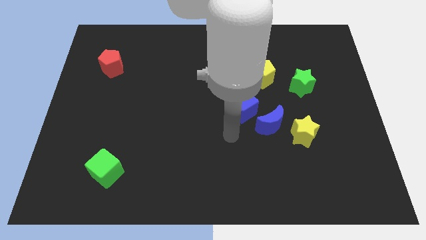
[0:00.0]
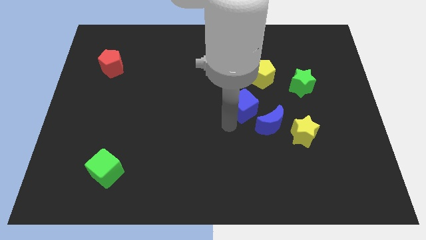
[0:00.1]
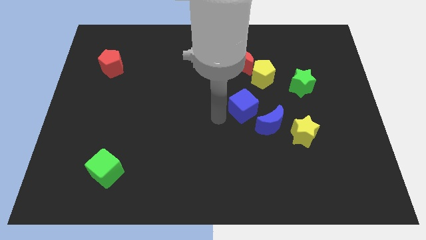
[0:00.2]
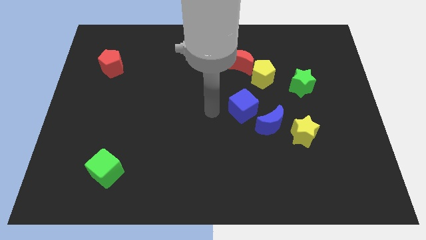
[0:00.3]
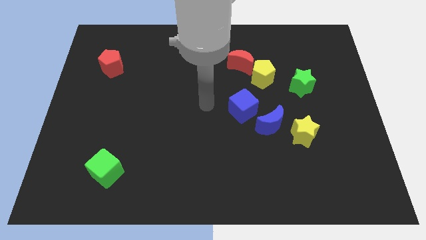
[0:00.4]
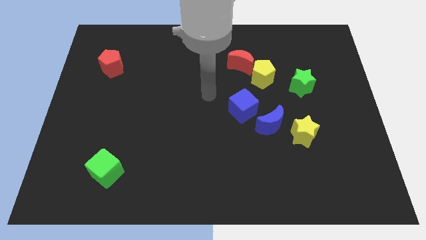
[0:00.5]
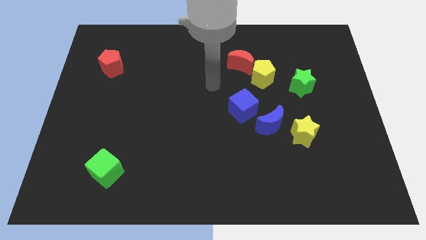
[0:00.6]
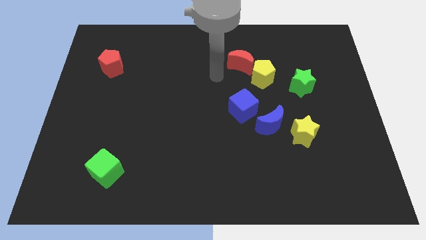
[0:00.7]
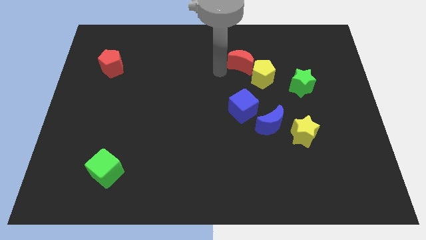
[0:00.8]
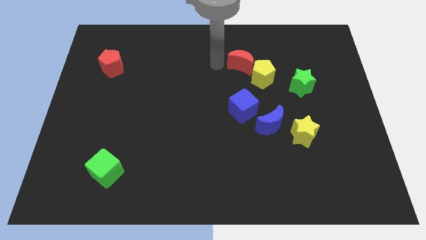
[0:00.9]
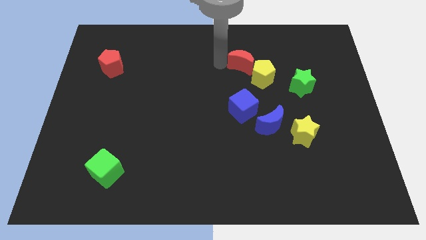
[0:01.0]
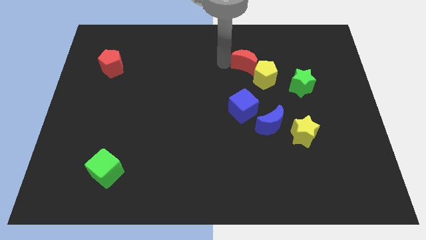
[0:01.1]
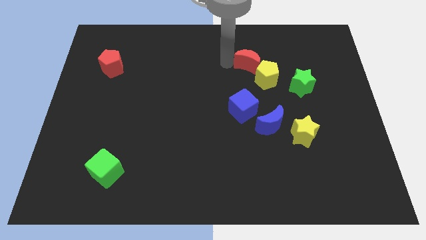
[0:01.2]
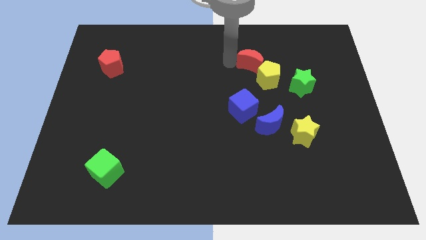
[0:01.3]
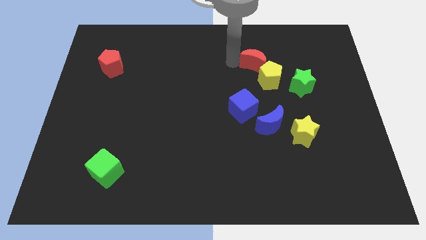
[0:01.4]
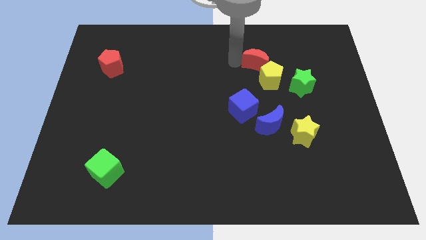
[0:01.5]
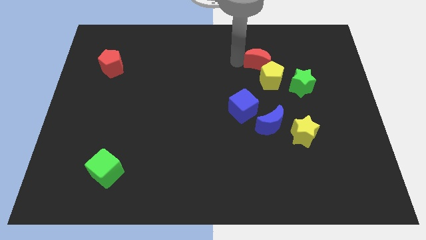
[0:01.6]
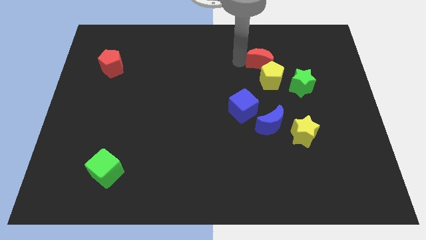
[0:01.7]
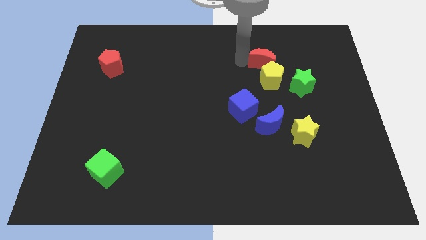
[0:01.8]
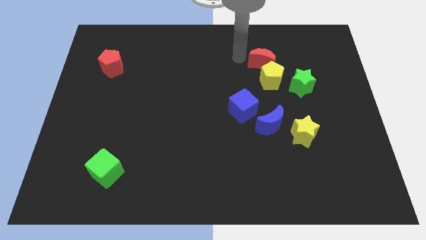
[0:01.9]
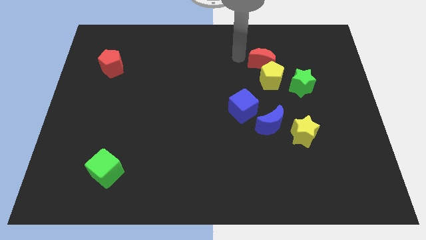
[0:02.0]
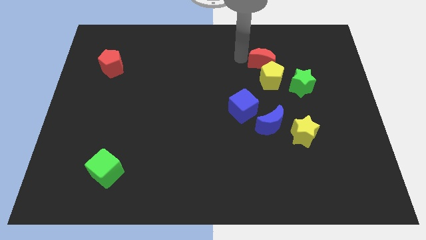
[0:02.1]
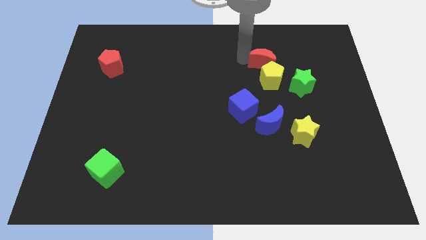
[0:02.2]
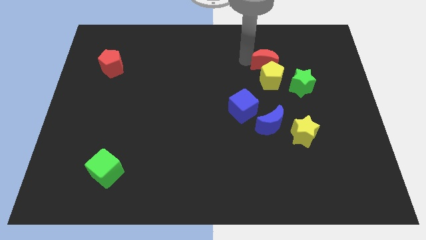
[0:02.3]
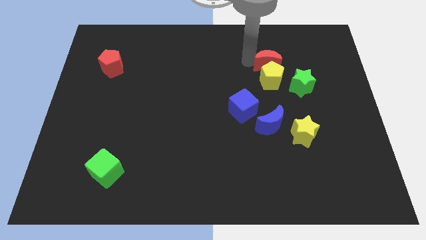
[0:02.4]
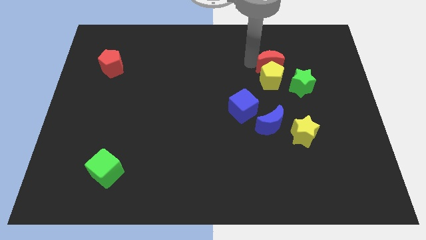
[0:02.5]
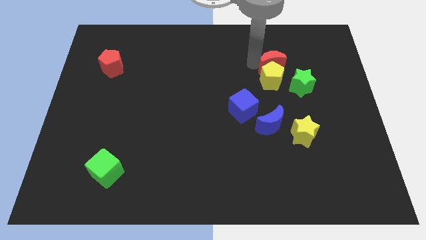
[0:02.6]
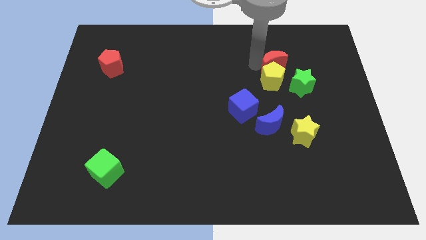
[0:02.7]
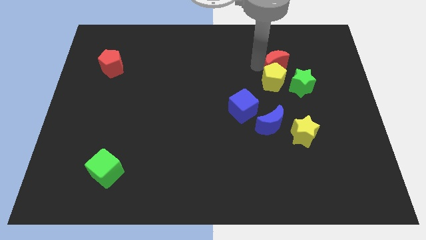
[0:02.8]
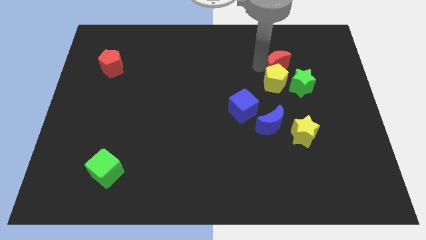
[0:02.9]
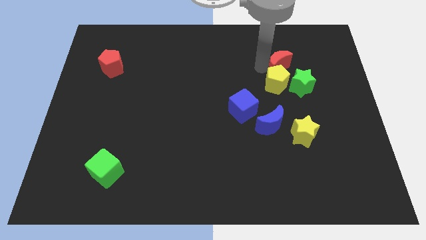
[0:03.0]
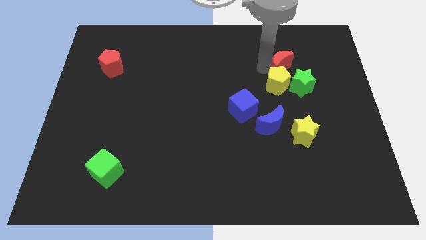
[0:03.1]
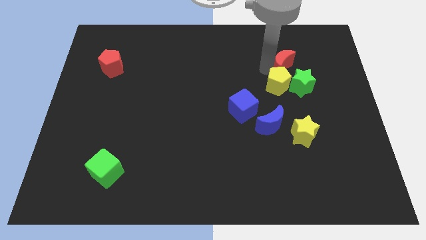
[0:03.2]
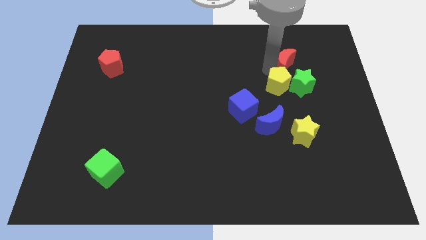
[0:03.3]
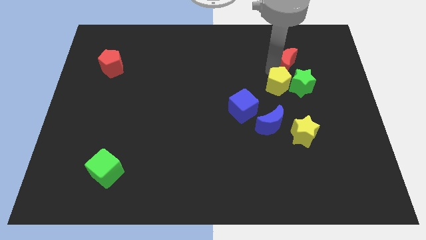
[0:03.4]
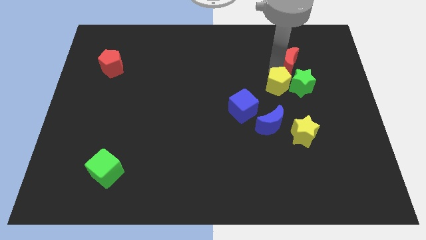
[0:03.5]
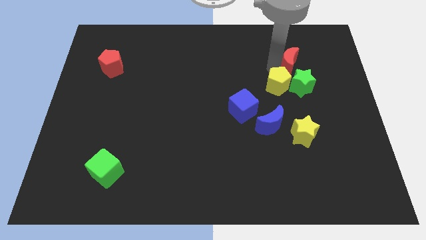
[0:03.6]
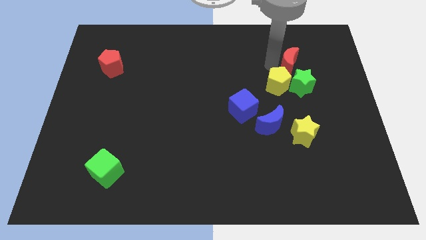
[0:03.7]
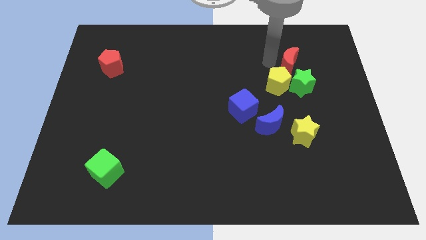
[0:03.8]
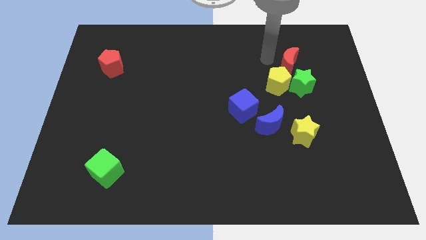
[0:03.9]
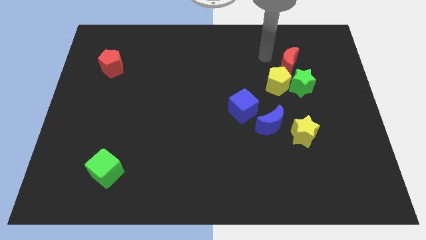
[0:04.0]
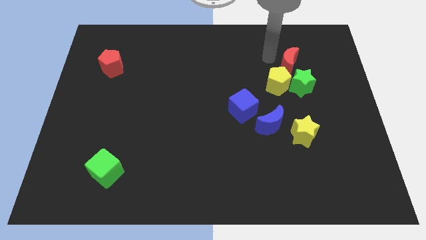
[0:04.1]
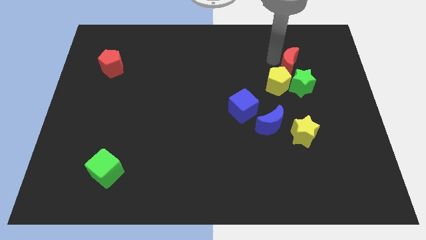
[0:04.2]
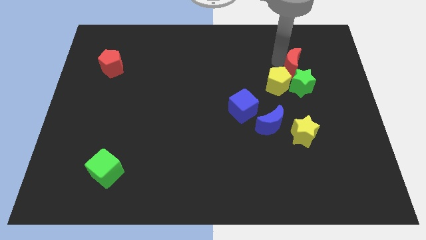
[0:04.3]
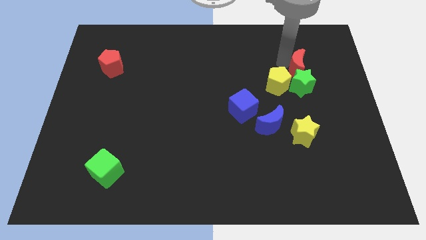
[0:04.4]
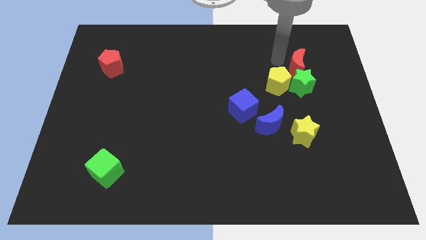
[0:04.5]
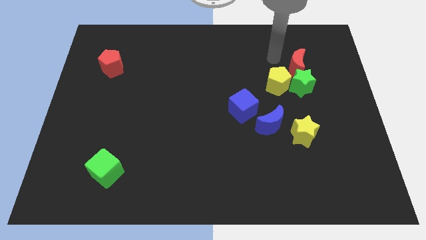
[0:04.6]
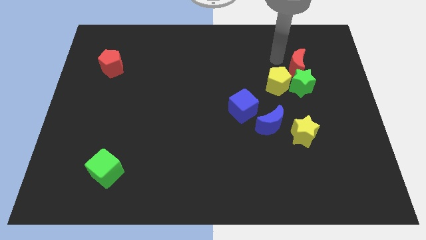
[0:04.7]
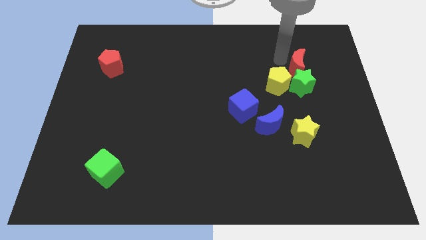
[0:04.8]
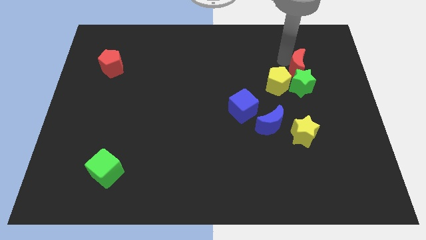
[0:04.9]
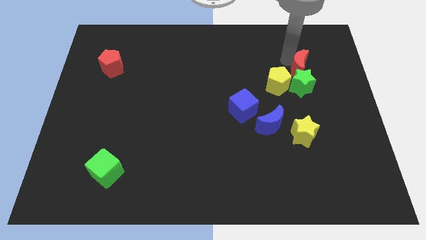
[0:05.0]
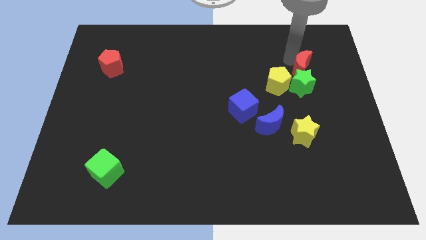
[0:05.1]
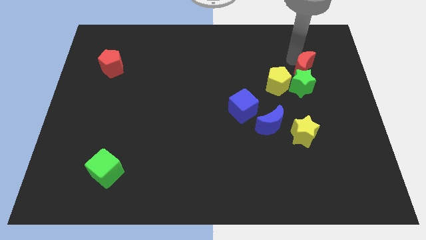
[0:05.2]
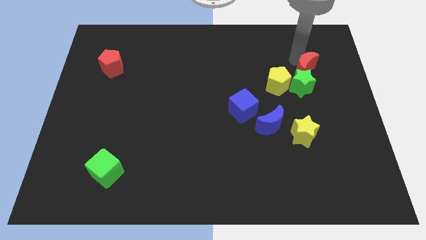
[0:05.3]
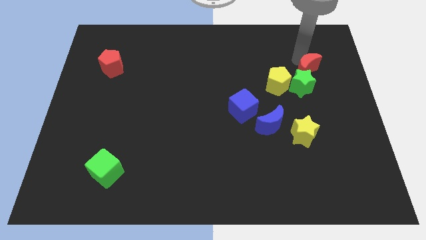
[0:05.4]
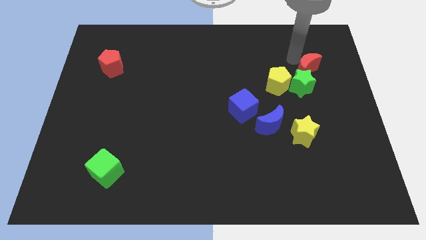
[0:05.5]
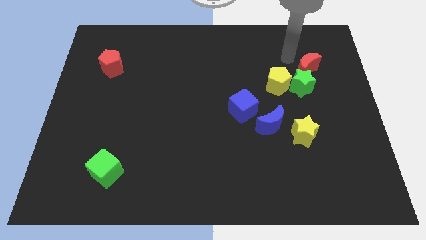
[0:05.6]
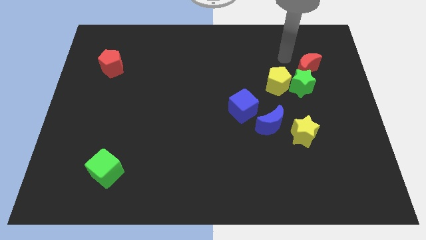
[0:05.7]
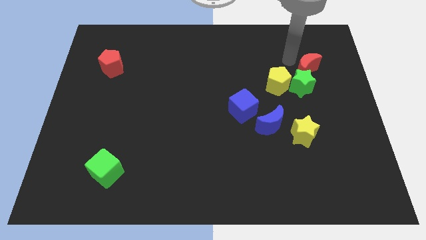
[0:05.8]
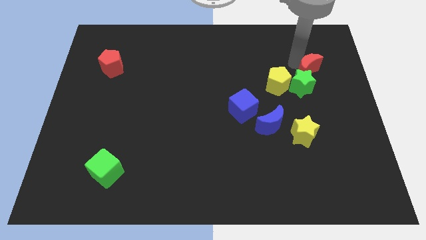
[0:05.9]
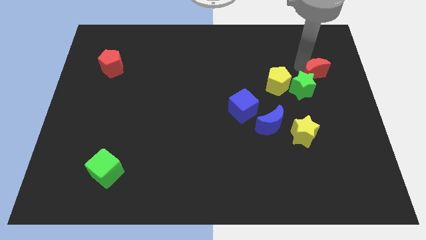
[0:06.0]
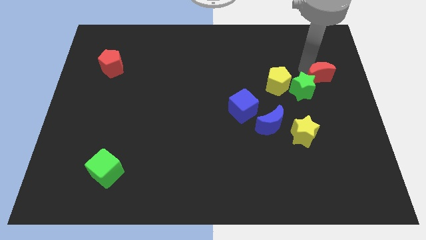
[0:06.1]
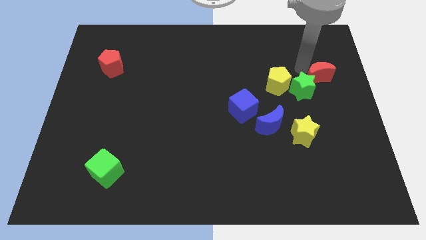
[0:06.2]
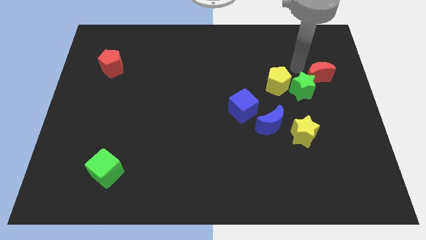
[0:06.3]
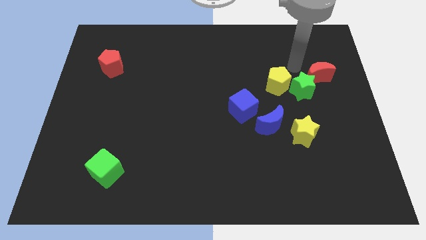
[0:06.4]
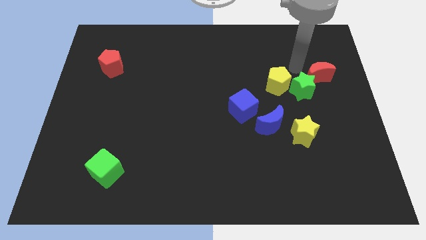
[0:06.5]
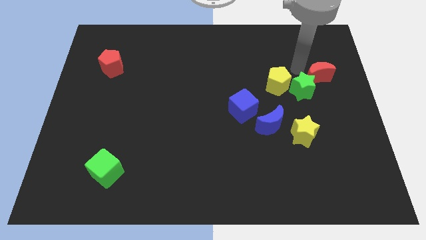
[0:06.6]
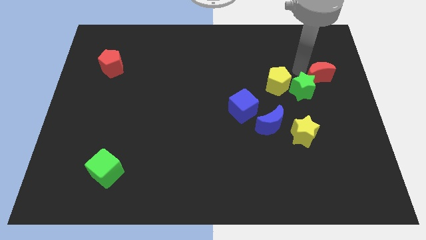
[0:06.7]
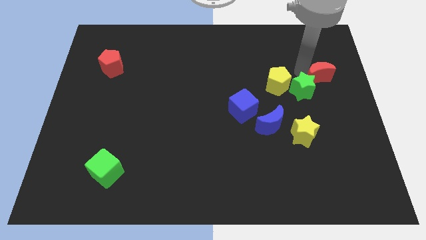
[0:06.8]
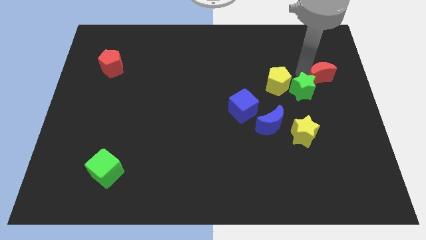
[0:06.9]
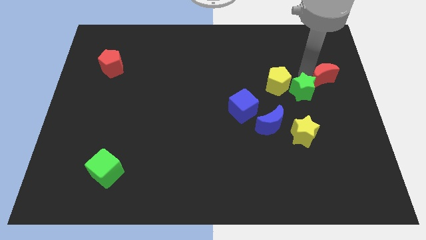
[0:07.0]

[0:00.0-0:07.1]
put the red moon to the right side of the board

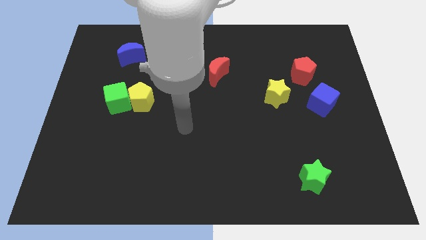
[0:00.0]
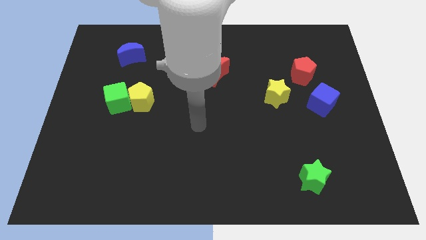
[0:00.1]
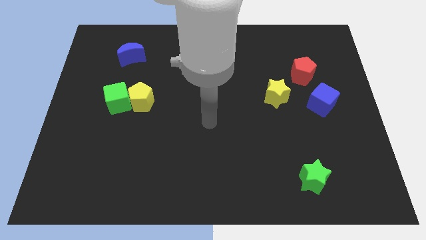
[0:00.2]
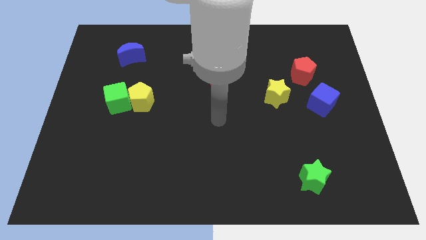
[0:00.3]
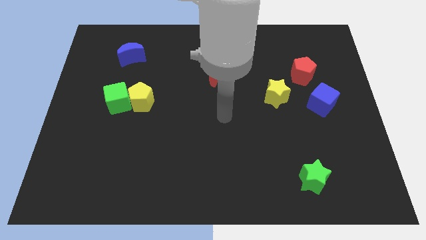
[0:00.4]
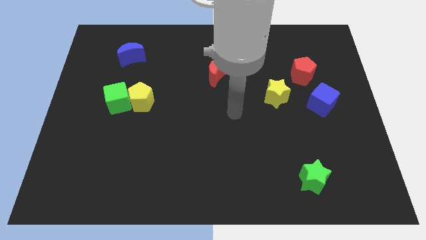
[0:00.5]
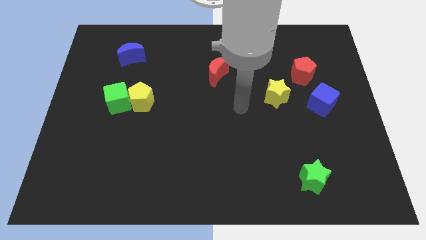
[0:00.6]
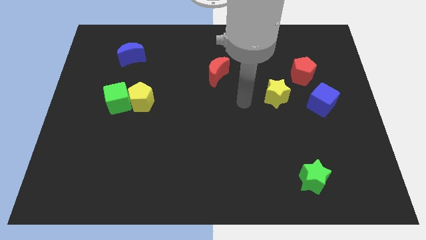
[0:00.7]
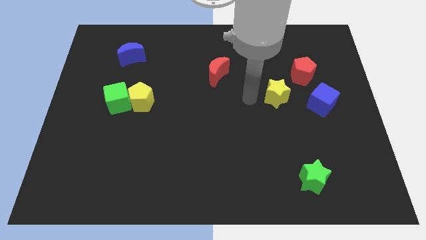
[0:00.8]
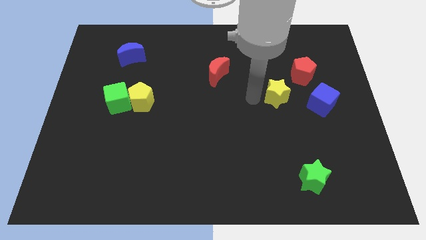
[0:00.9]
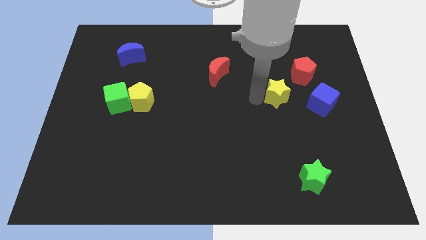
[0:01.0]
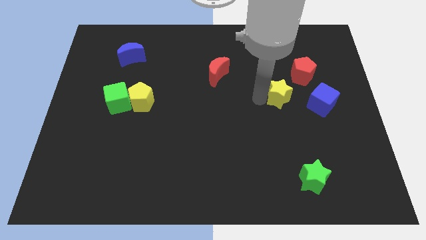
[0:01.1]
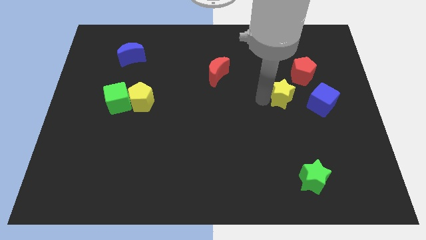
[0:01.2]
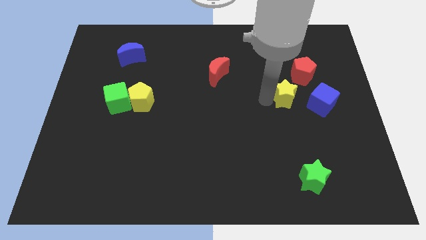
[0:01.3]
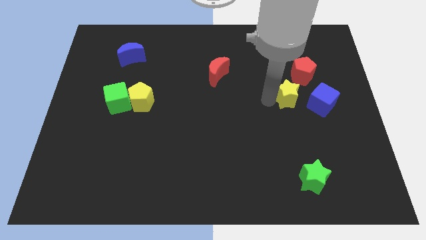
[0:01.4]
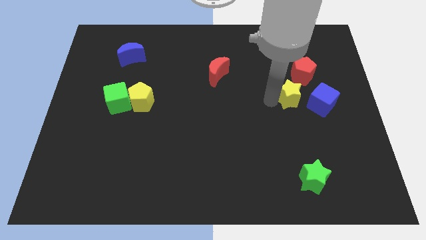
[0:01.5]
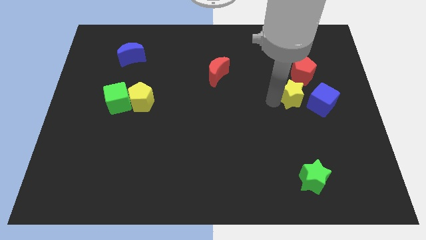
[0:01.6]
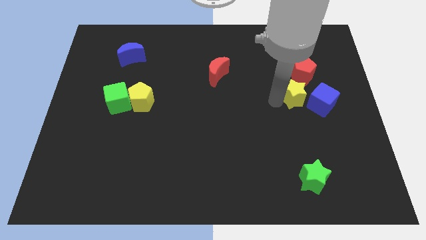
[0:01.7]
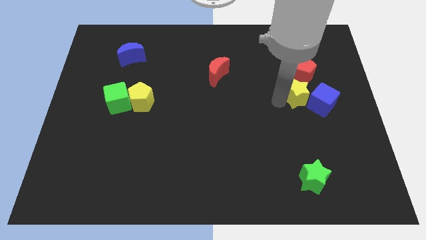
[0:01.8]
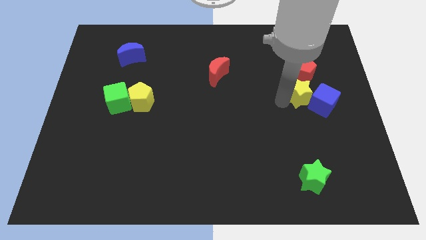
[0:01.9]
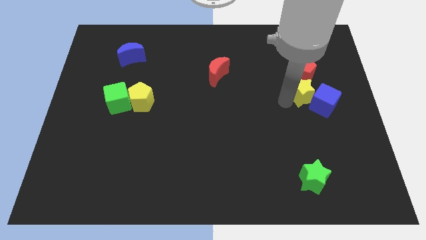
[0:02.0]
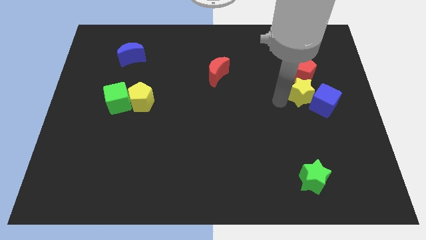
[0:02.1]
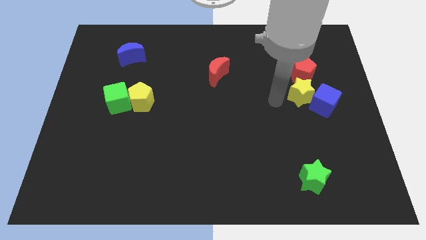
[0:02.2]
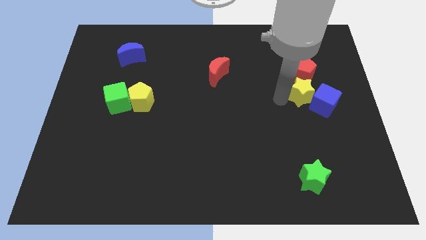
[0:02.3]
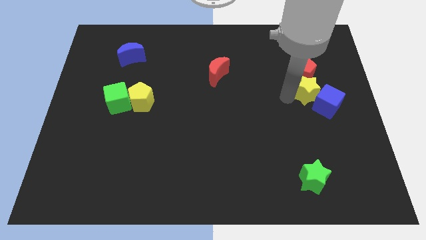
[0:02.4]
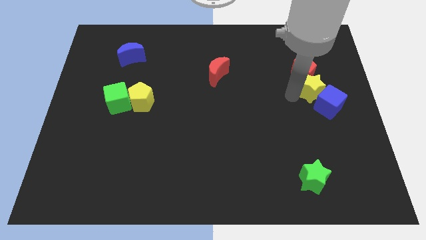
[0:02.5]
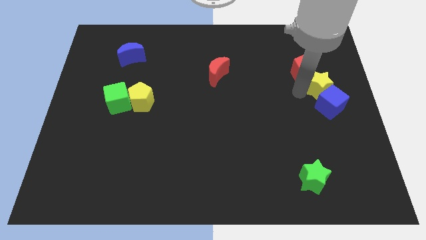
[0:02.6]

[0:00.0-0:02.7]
put the yellow star to the center right
